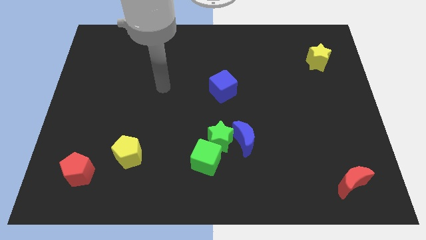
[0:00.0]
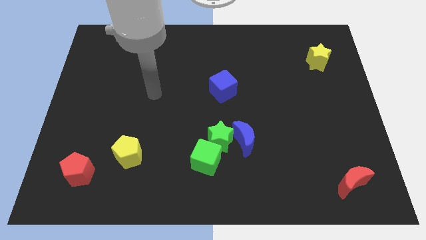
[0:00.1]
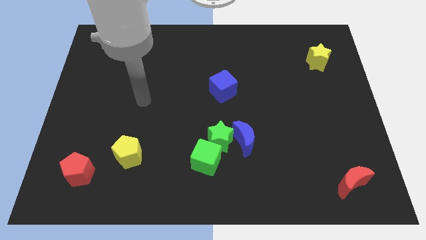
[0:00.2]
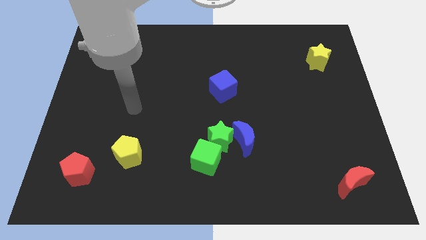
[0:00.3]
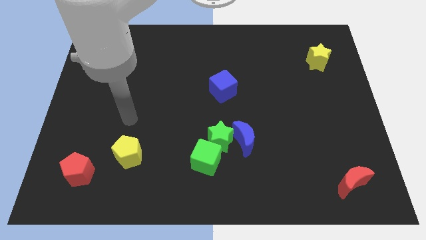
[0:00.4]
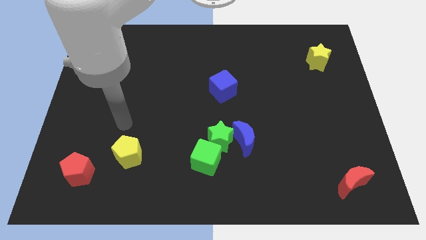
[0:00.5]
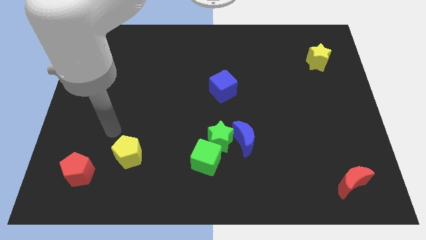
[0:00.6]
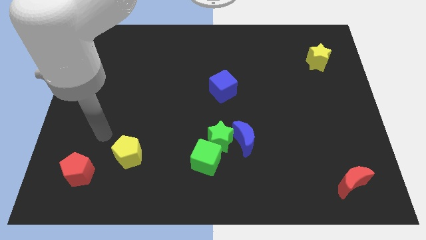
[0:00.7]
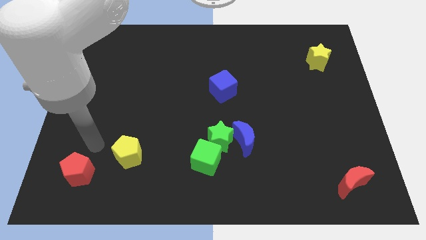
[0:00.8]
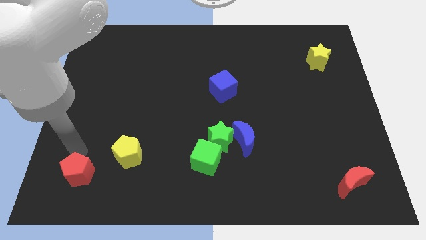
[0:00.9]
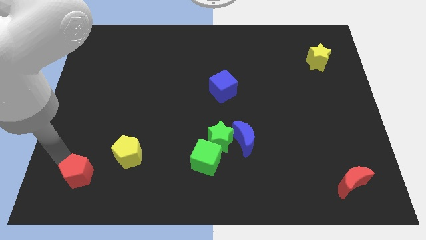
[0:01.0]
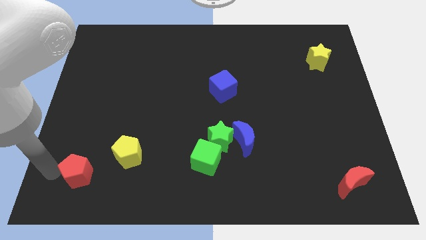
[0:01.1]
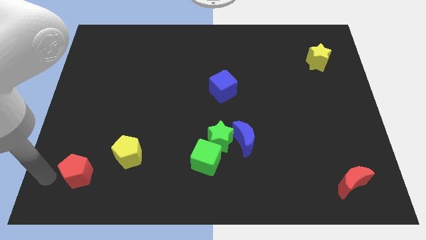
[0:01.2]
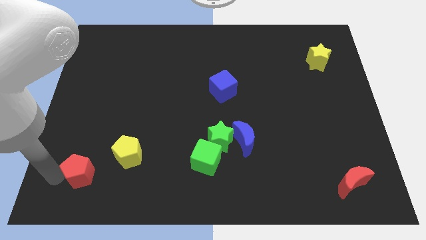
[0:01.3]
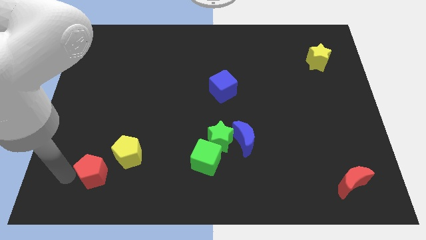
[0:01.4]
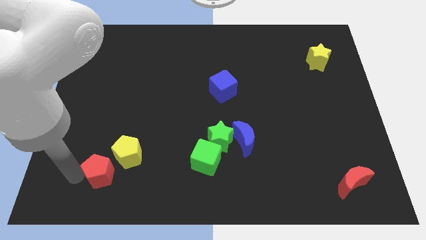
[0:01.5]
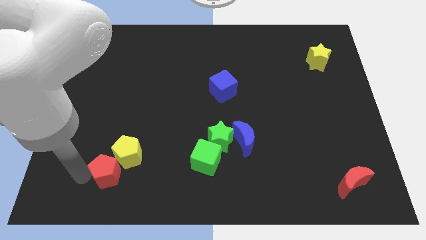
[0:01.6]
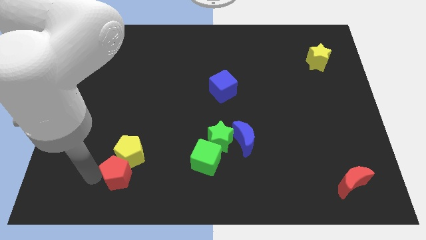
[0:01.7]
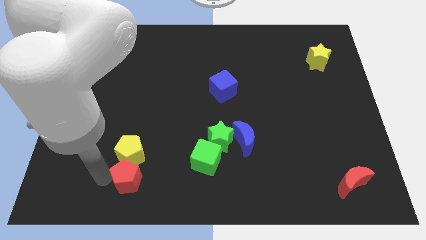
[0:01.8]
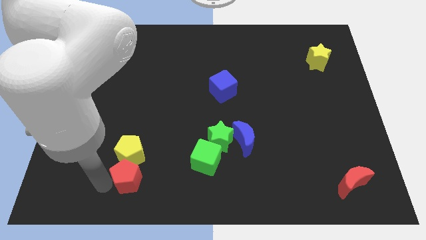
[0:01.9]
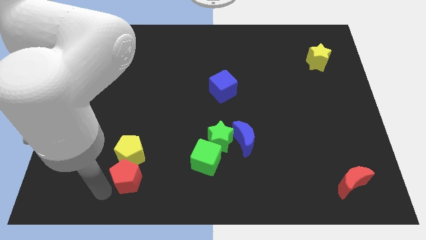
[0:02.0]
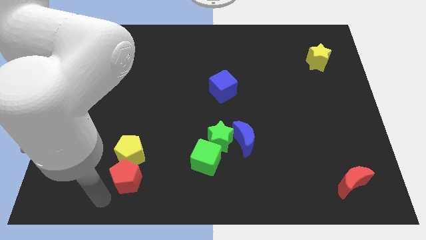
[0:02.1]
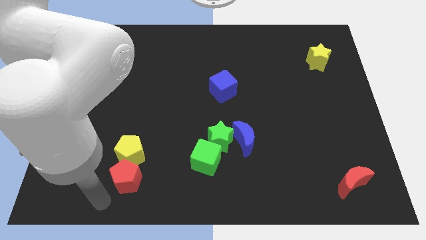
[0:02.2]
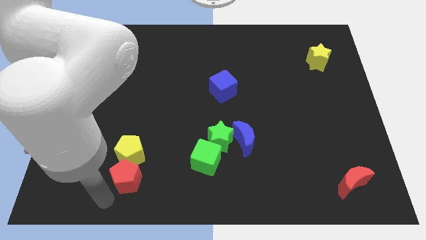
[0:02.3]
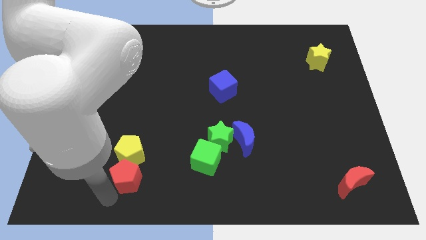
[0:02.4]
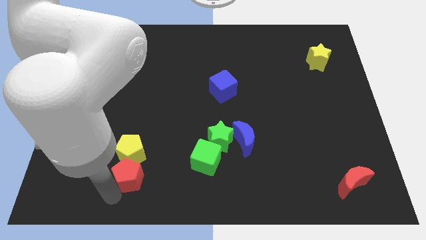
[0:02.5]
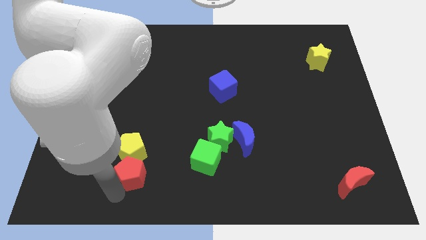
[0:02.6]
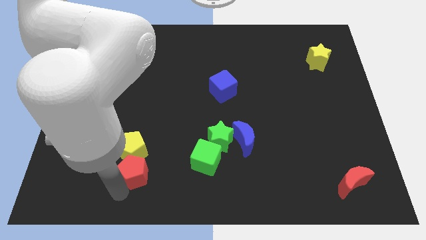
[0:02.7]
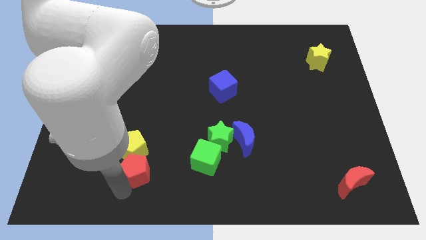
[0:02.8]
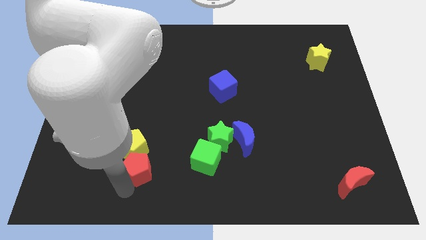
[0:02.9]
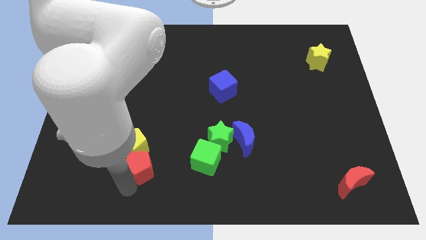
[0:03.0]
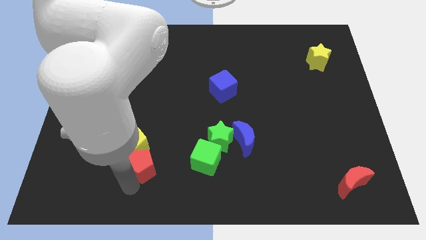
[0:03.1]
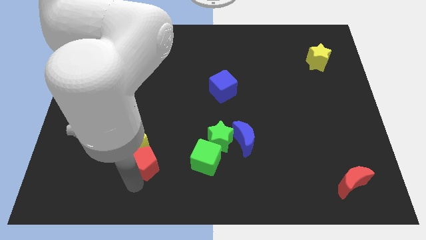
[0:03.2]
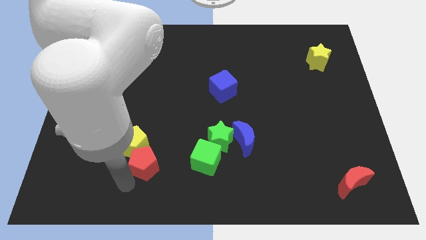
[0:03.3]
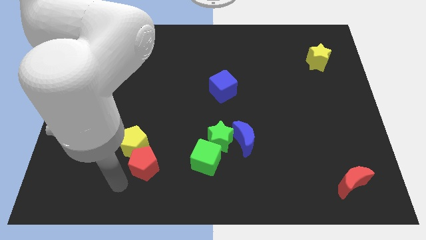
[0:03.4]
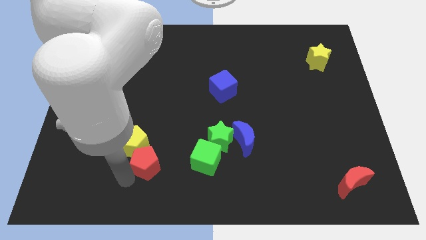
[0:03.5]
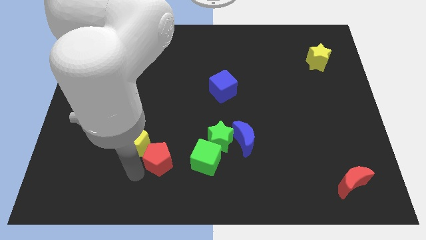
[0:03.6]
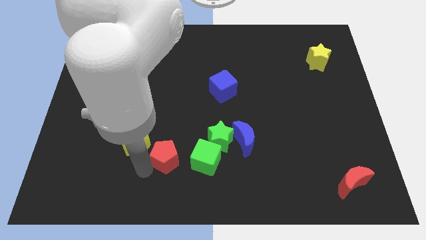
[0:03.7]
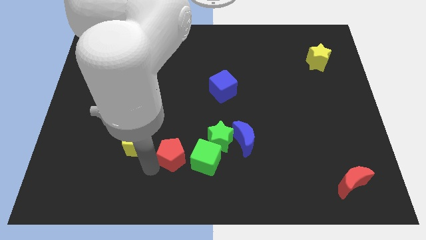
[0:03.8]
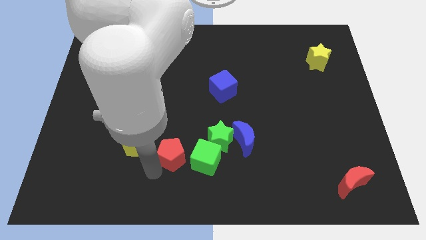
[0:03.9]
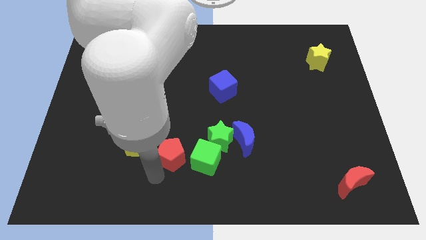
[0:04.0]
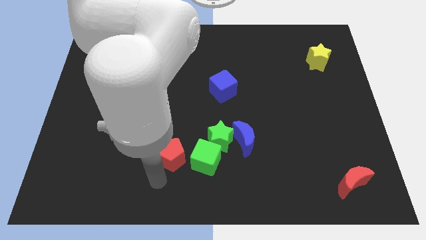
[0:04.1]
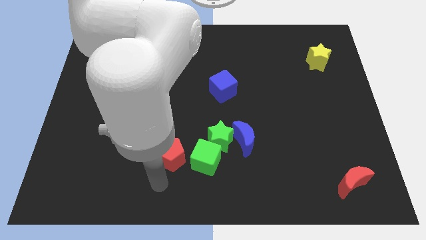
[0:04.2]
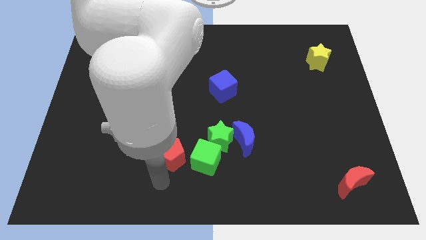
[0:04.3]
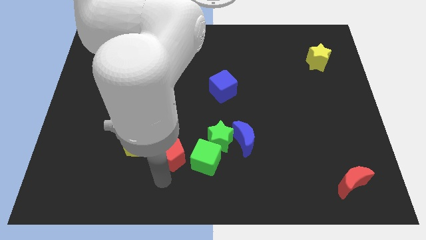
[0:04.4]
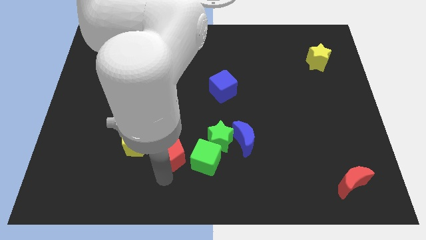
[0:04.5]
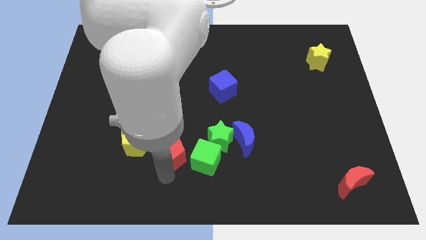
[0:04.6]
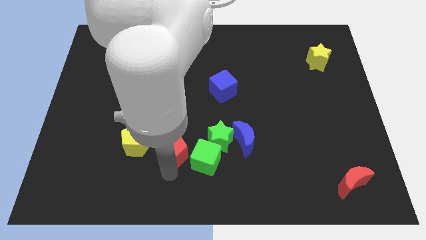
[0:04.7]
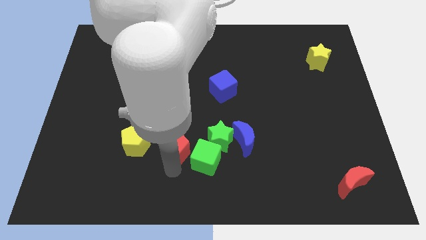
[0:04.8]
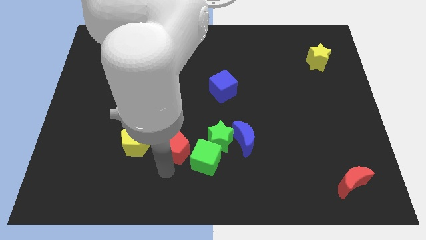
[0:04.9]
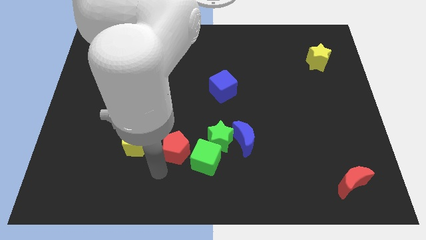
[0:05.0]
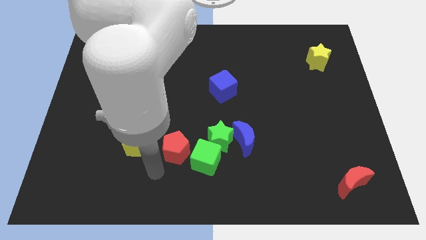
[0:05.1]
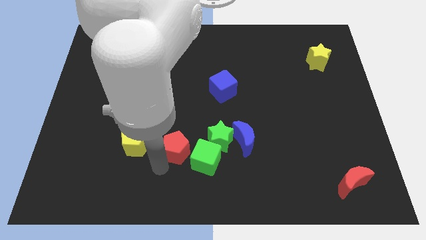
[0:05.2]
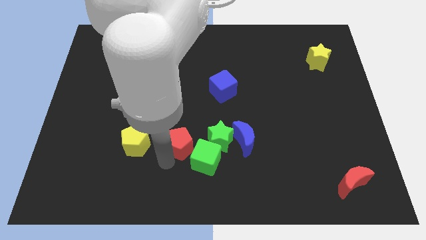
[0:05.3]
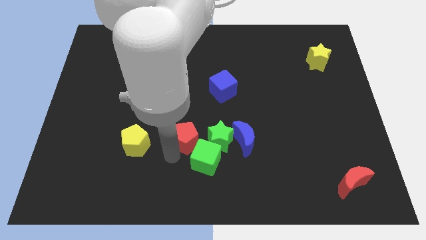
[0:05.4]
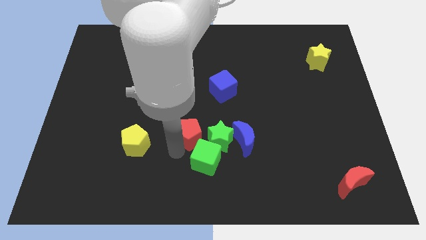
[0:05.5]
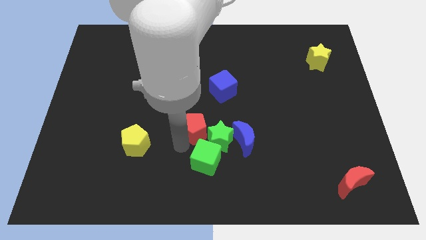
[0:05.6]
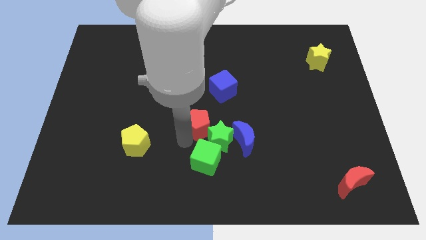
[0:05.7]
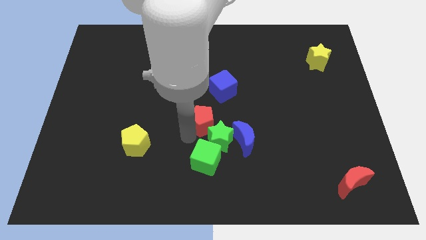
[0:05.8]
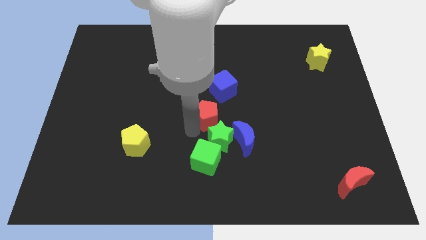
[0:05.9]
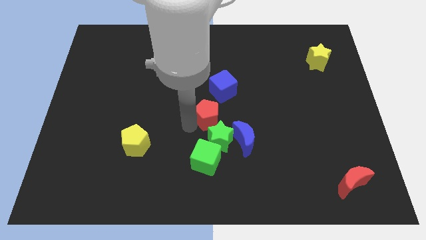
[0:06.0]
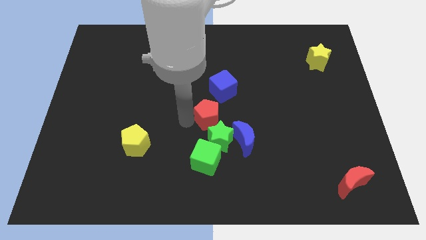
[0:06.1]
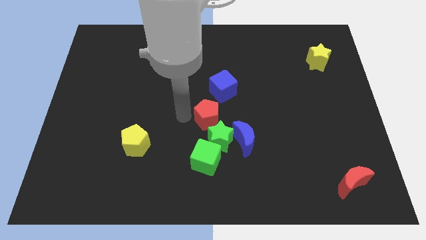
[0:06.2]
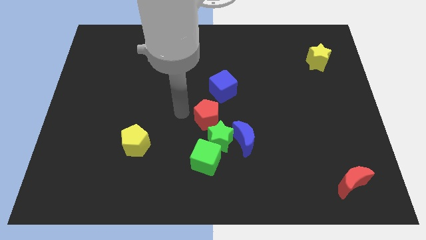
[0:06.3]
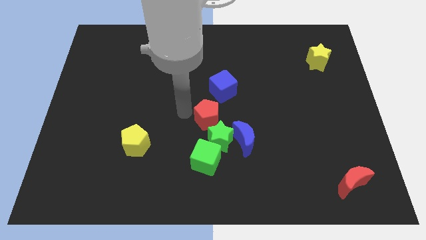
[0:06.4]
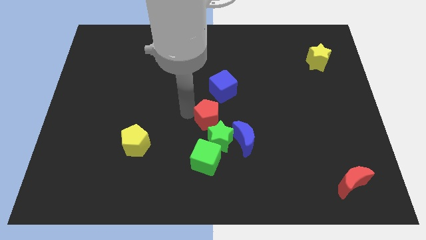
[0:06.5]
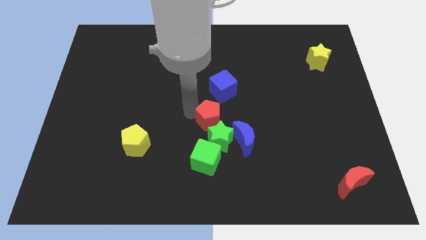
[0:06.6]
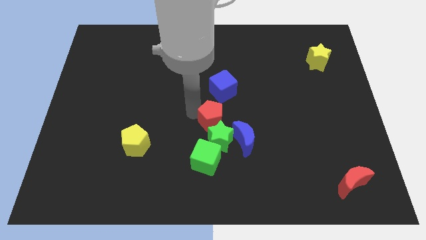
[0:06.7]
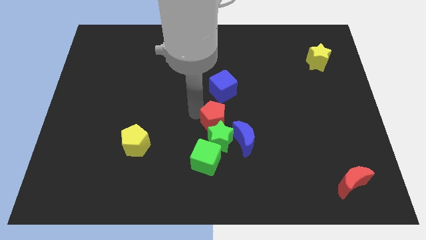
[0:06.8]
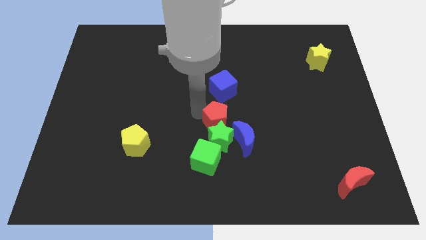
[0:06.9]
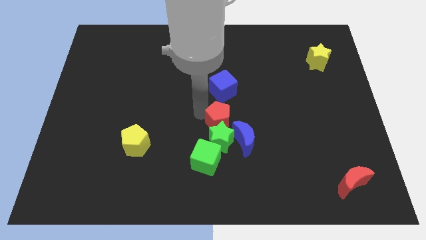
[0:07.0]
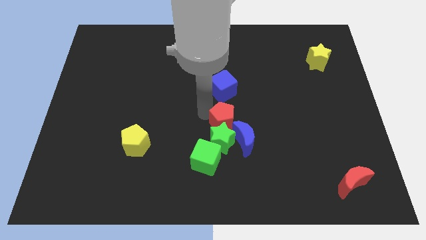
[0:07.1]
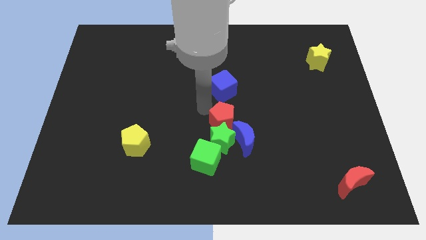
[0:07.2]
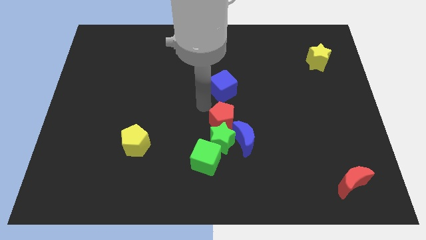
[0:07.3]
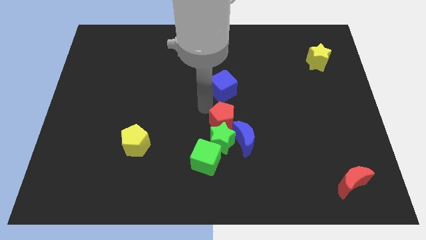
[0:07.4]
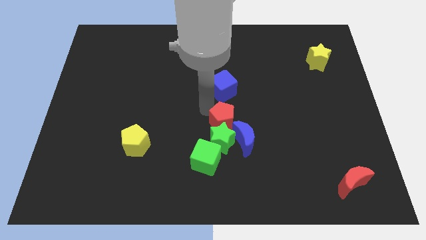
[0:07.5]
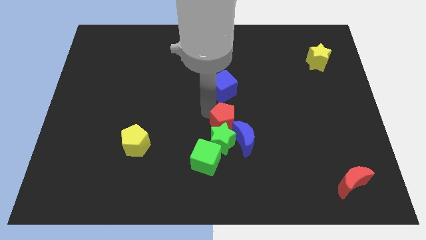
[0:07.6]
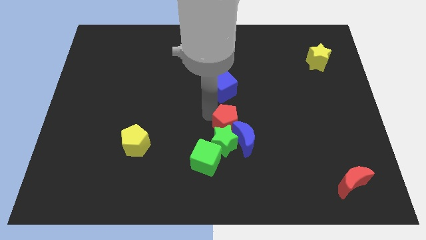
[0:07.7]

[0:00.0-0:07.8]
put the red pentagon close to the blue moon
